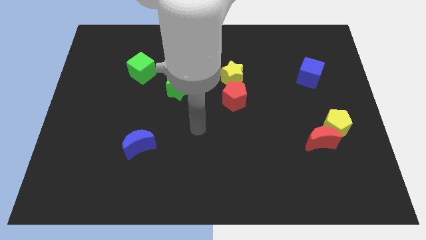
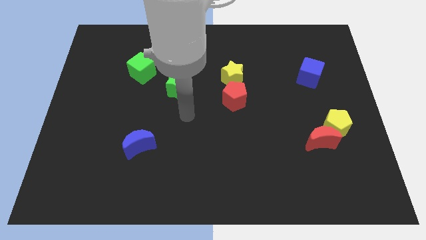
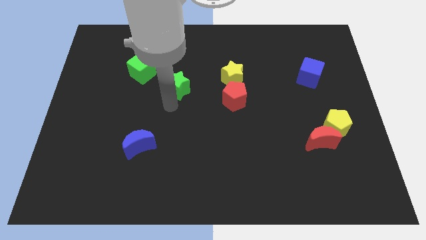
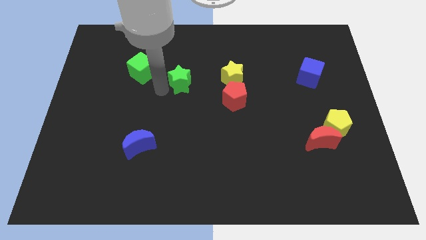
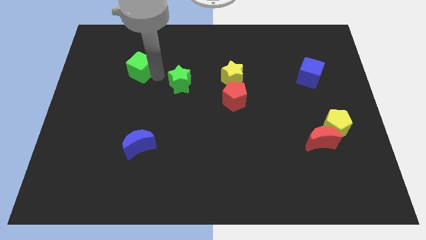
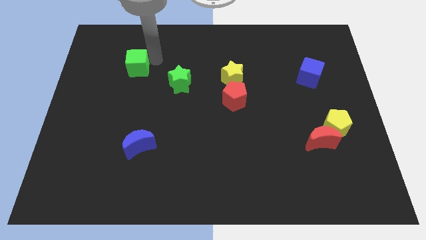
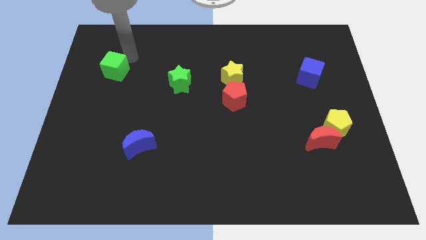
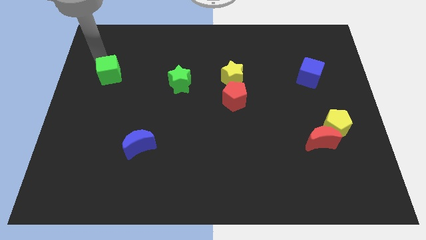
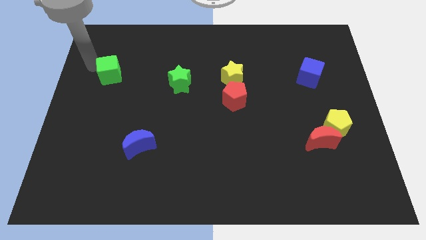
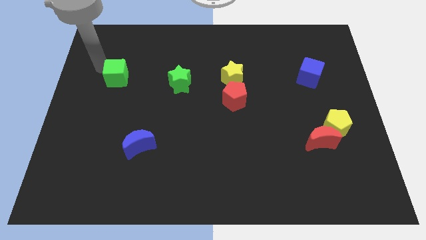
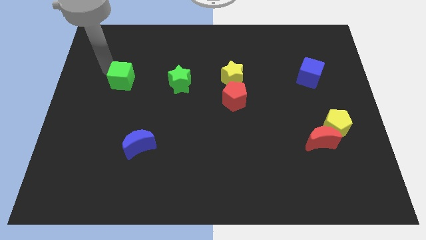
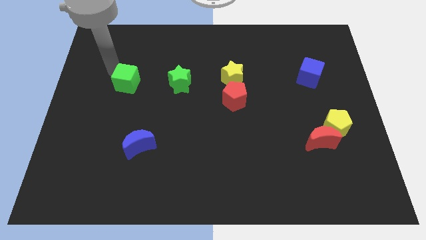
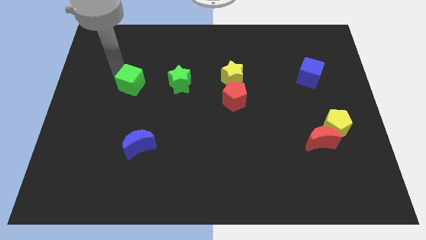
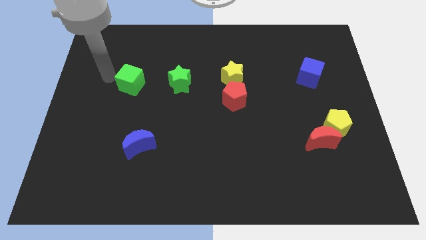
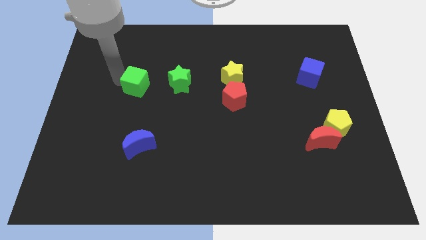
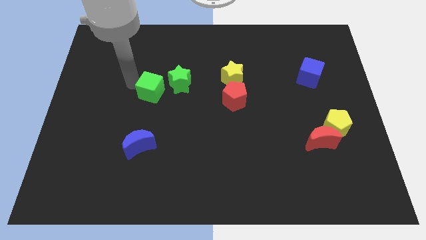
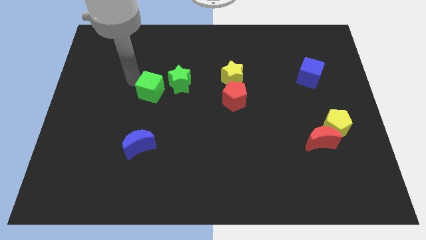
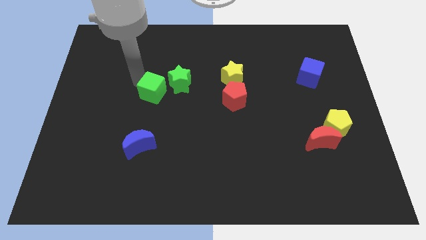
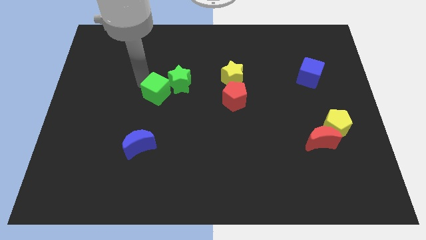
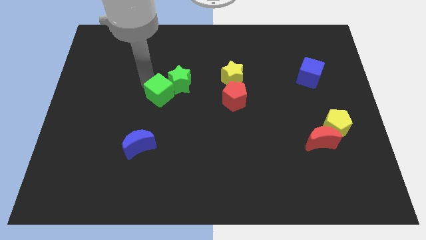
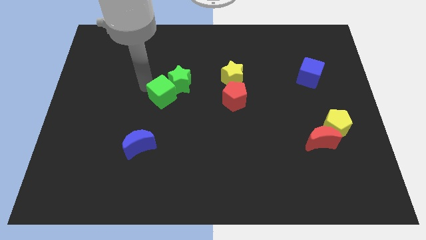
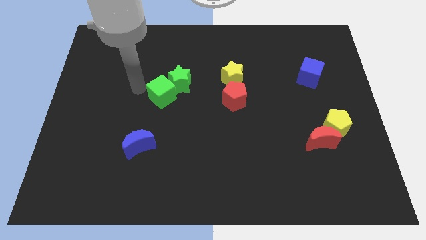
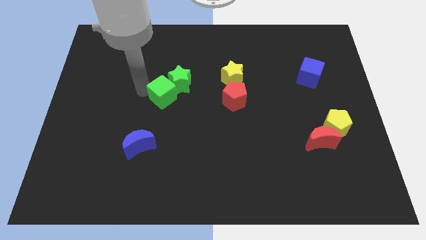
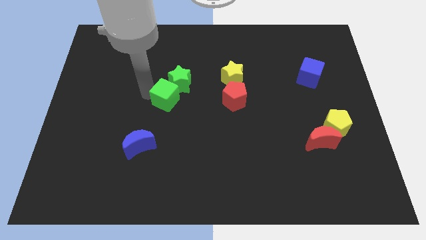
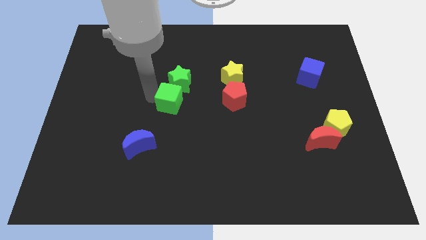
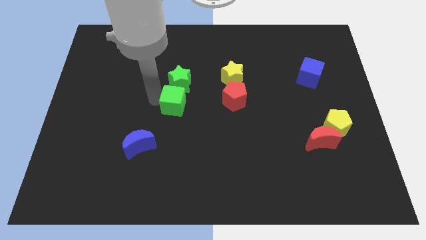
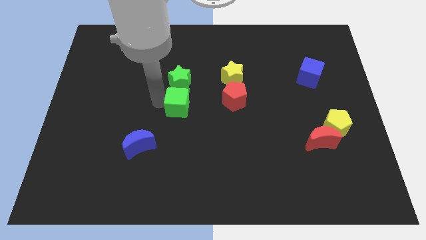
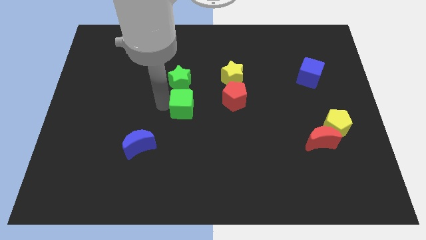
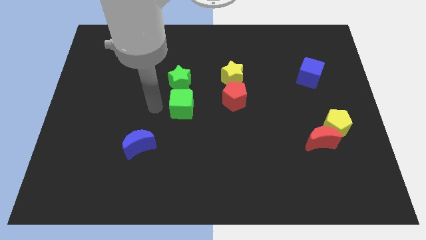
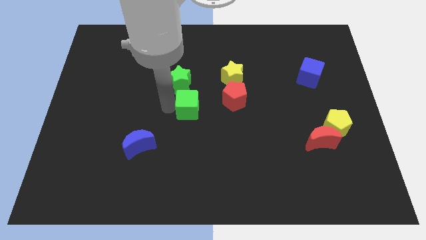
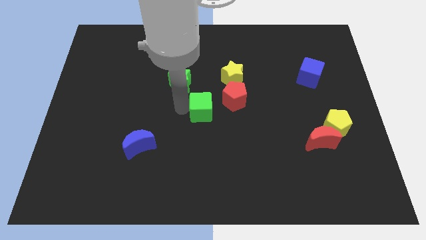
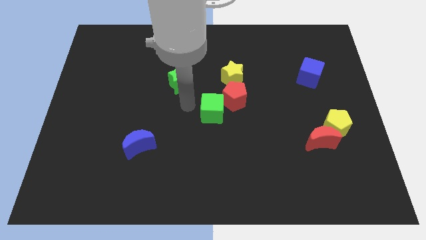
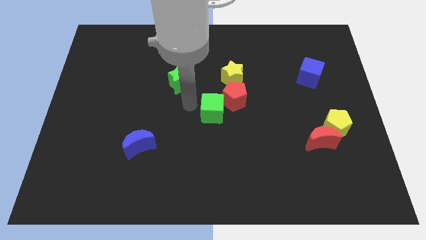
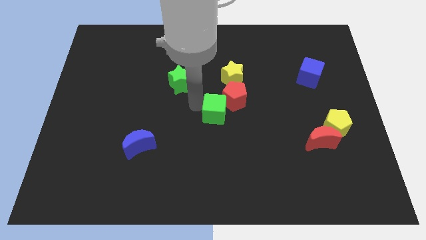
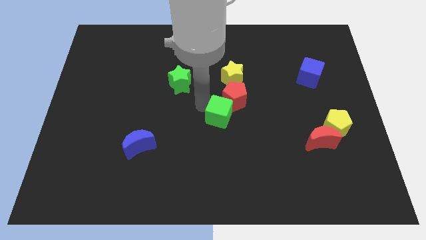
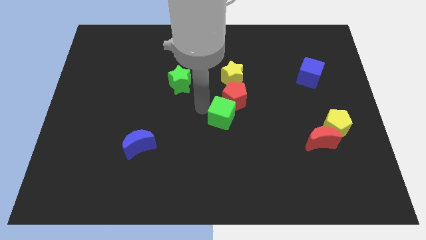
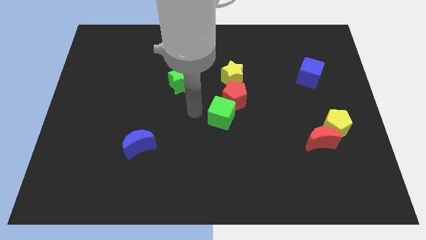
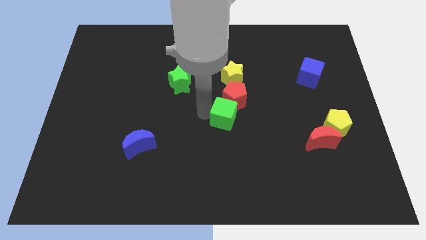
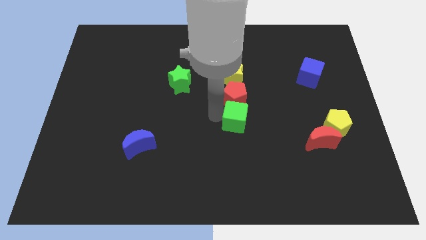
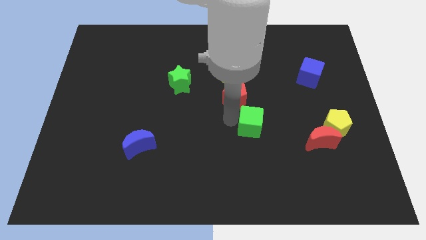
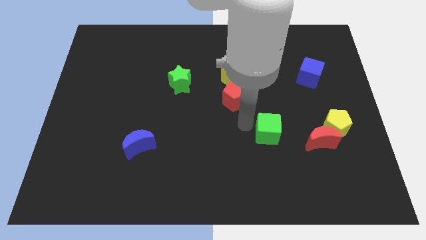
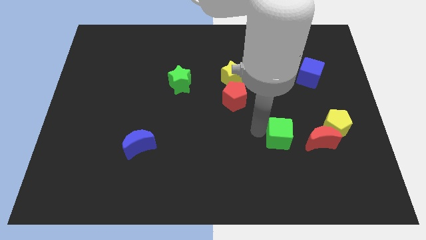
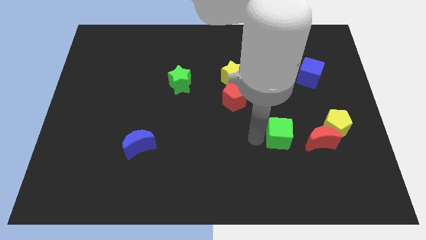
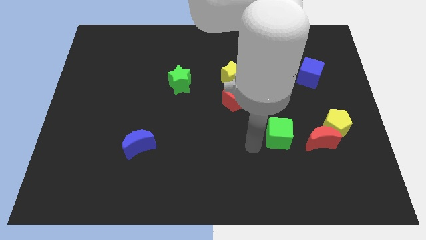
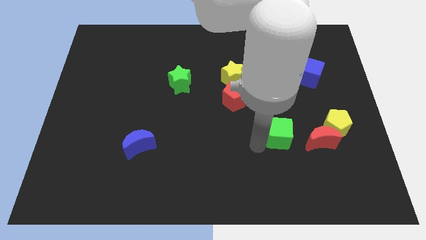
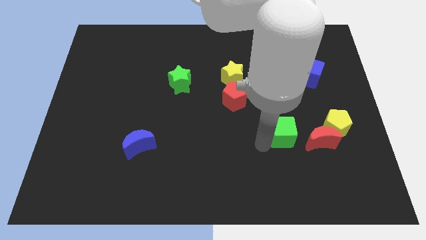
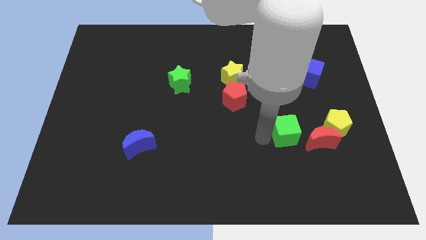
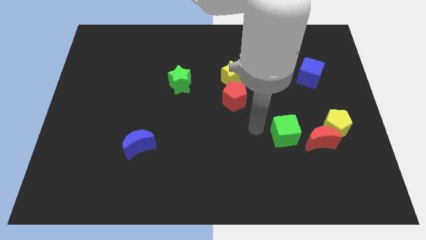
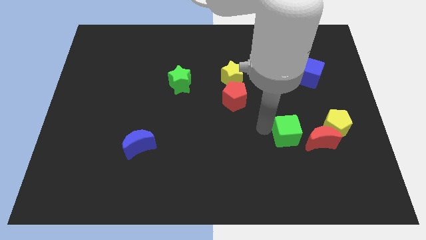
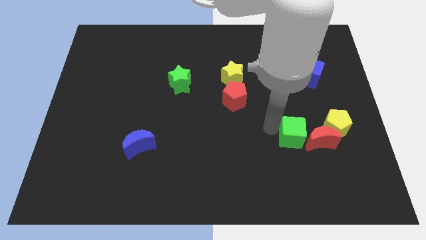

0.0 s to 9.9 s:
push the green cube close to the red moon

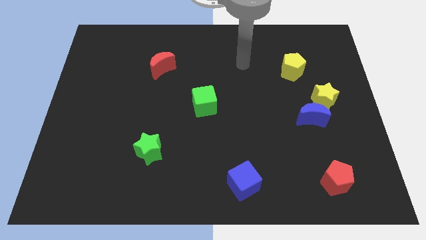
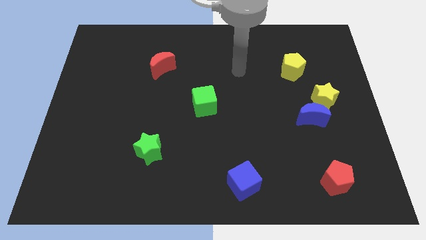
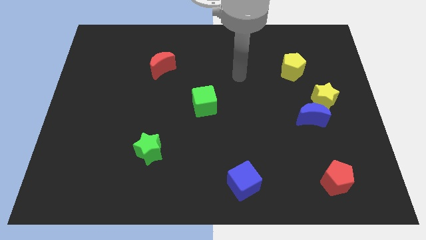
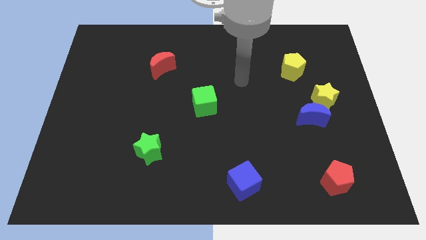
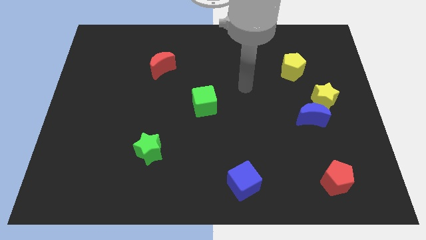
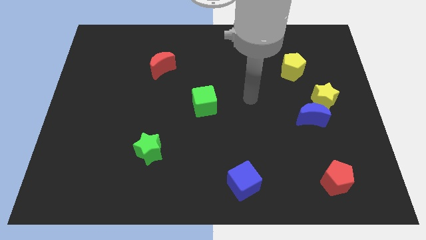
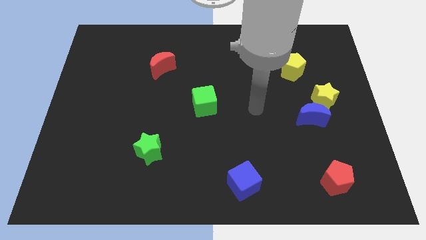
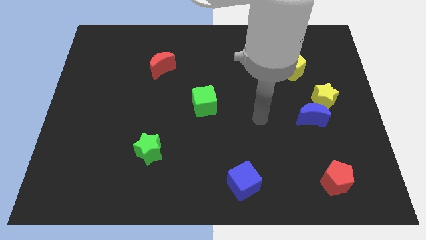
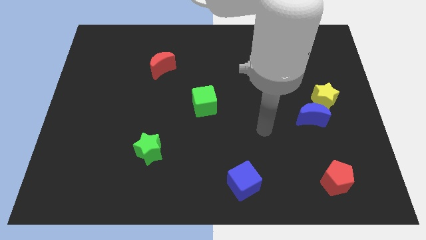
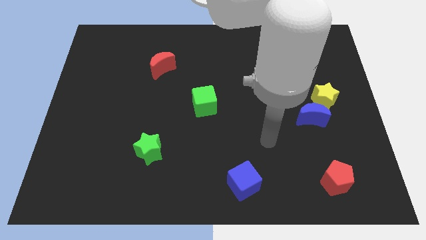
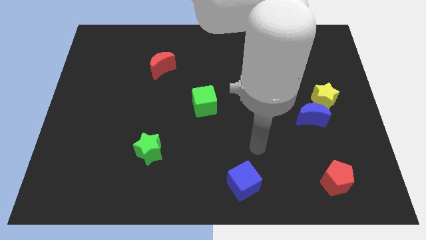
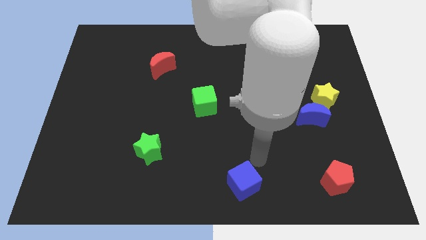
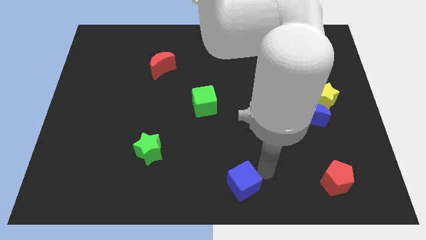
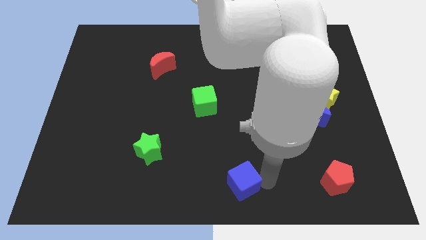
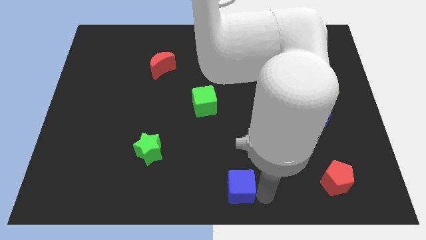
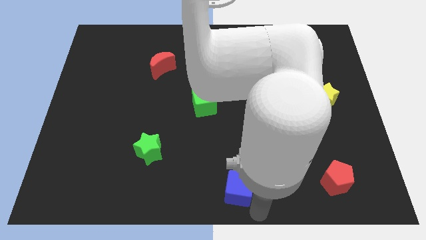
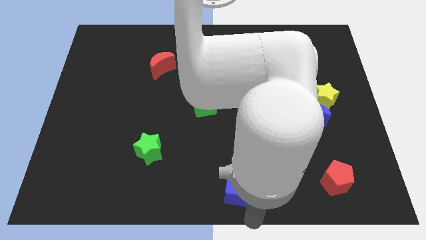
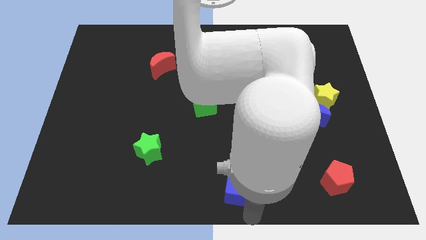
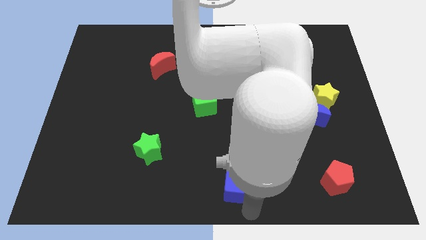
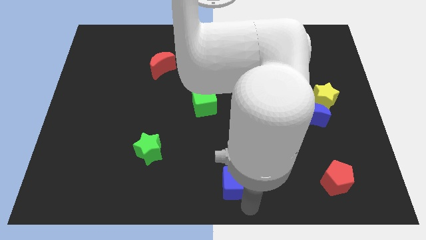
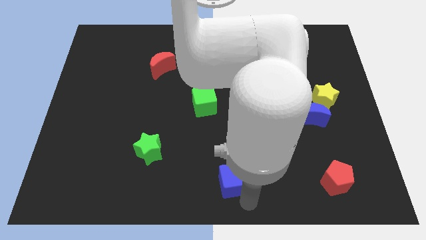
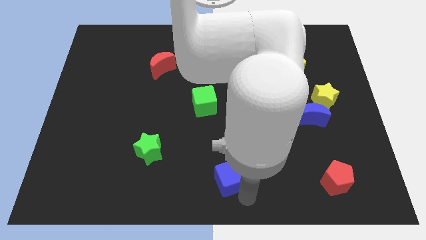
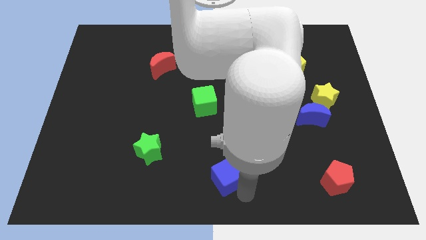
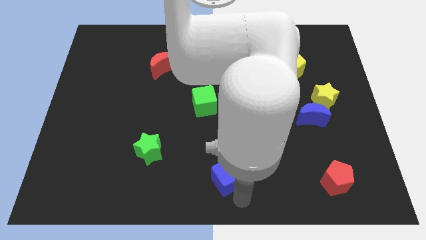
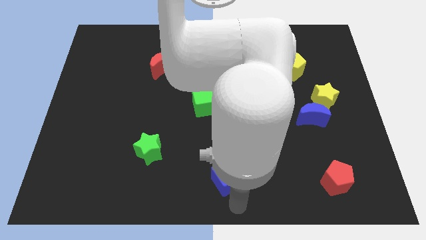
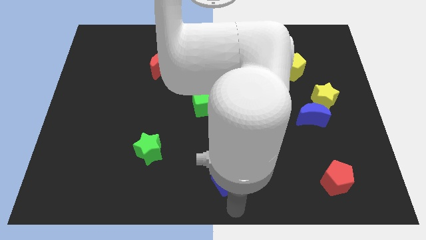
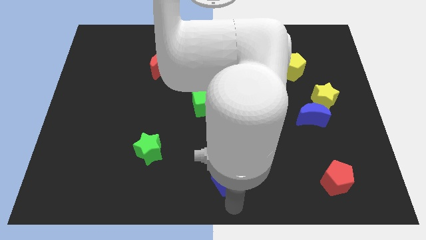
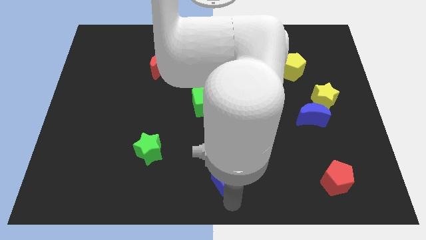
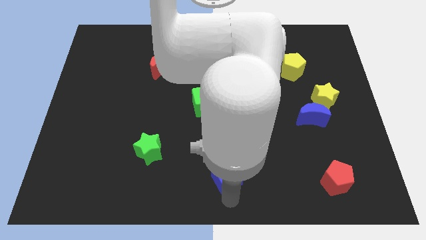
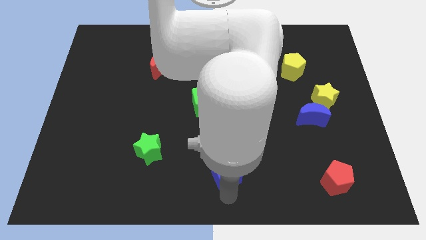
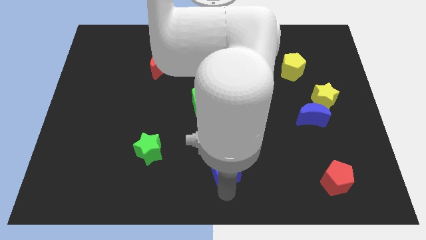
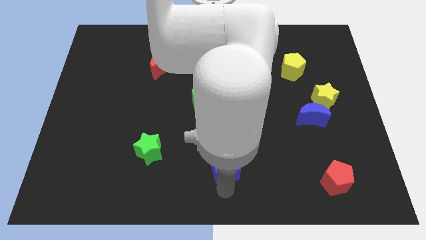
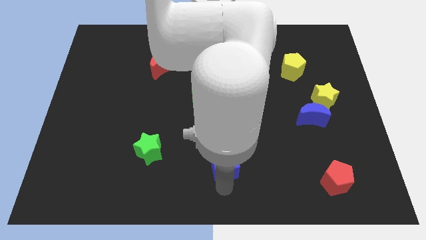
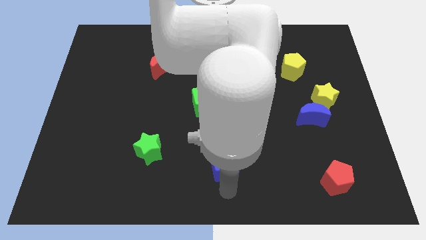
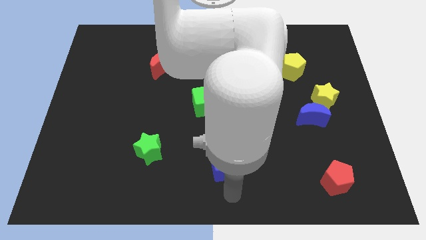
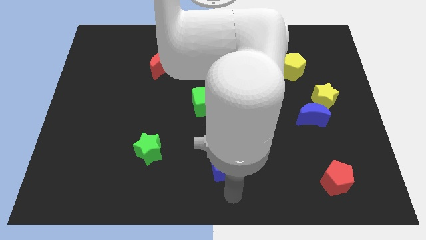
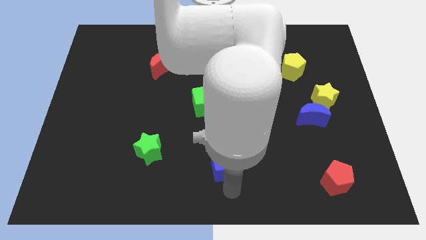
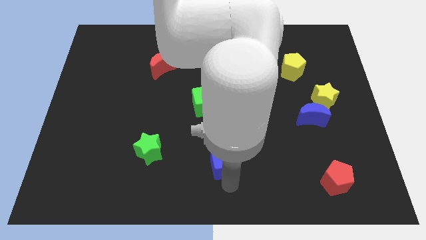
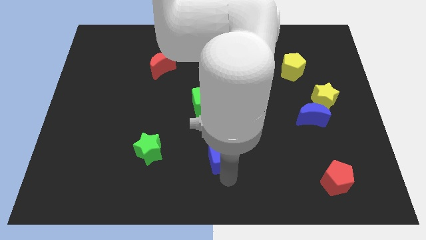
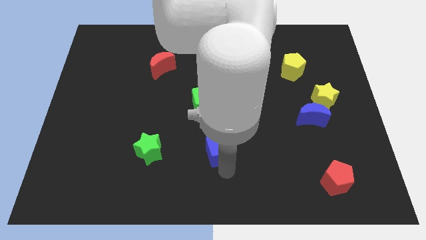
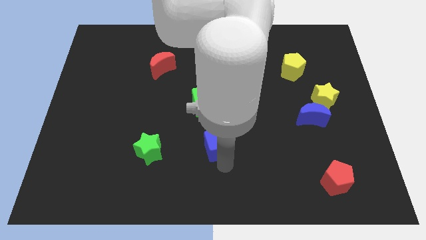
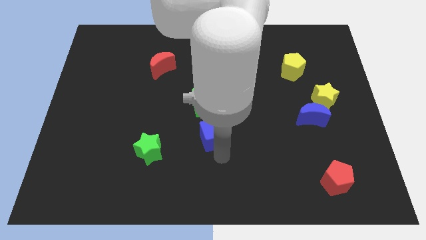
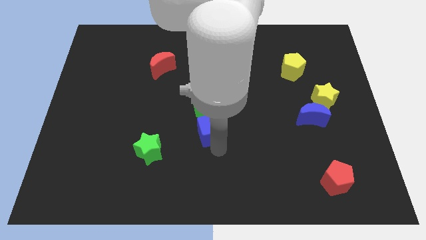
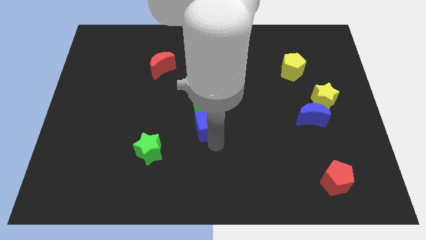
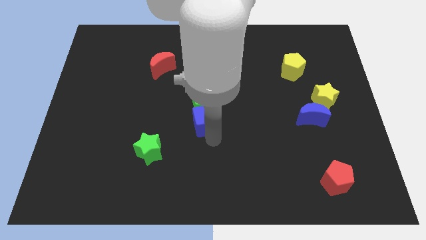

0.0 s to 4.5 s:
slide the blue cube to the green cube
